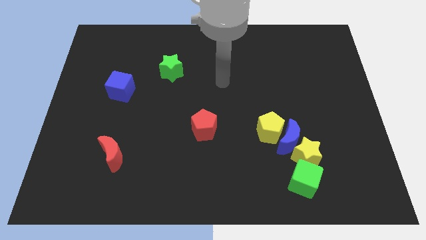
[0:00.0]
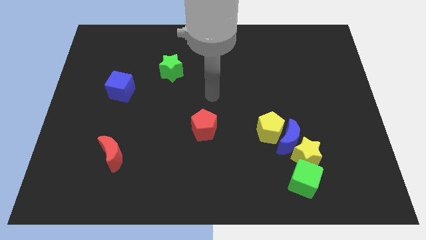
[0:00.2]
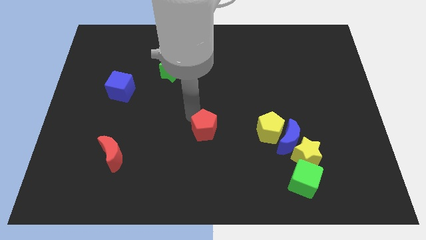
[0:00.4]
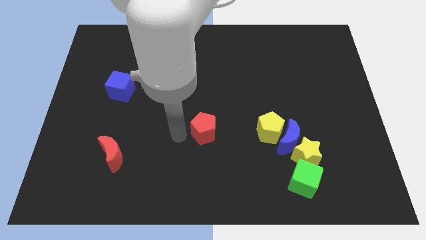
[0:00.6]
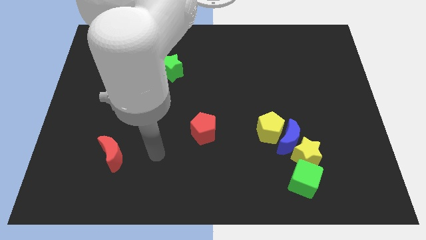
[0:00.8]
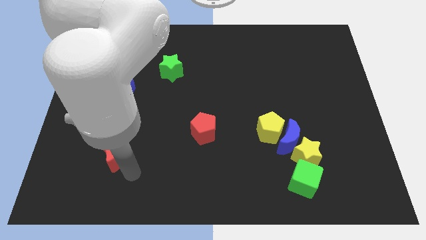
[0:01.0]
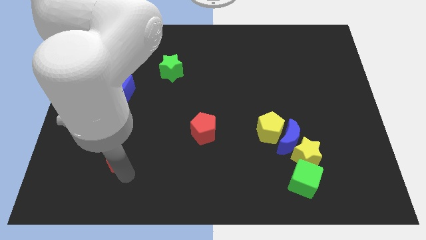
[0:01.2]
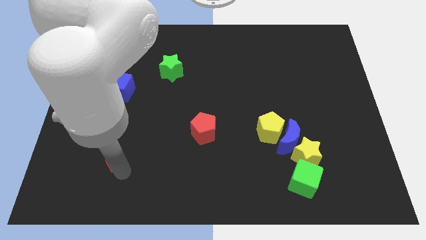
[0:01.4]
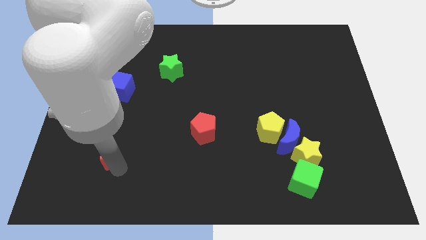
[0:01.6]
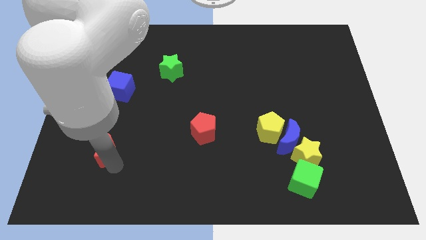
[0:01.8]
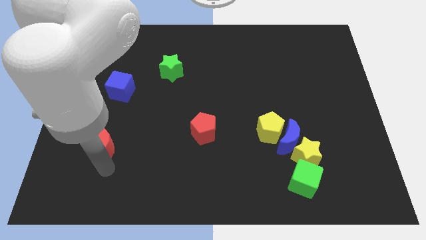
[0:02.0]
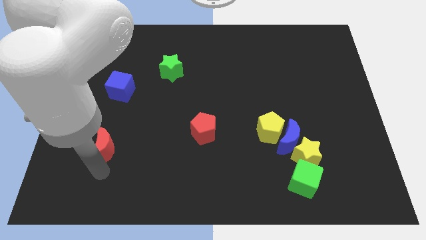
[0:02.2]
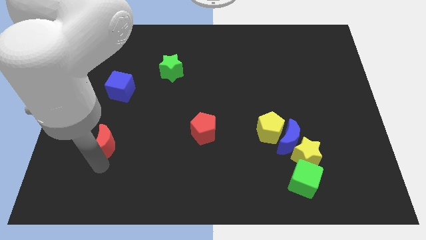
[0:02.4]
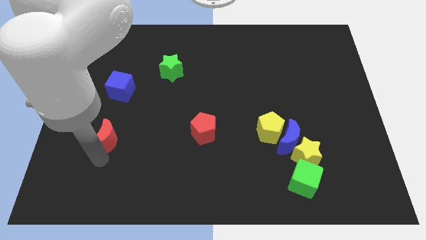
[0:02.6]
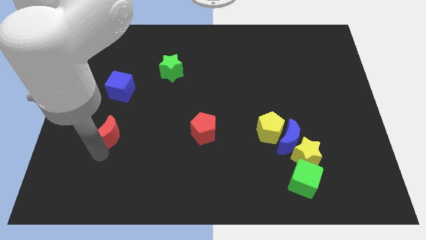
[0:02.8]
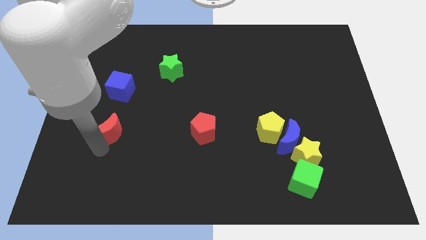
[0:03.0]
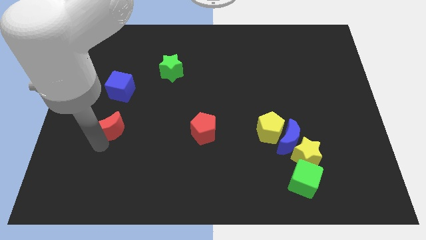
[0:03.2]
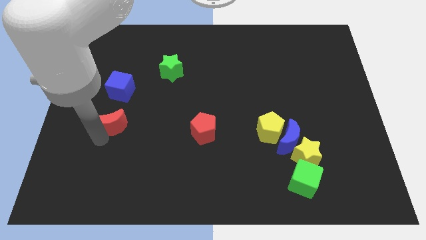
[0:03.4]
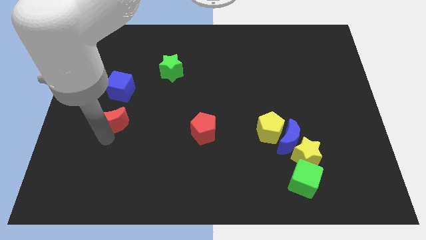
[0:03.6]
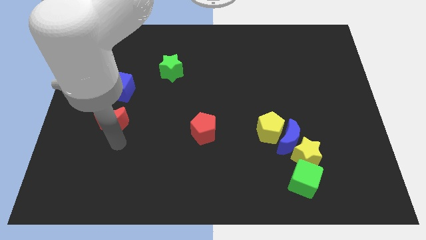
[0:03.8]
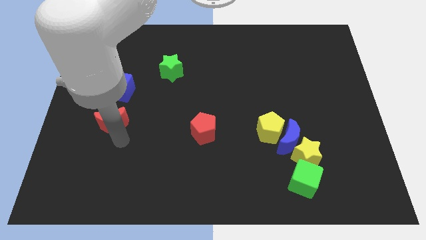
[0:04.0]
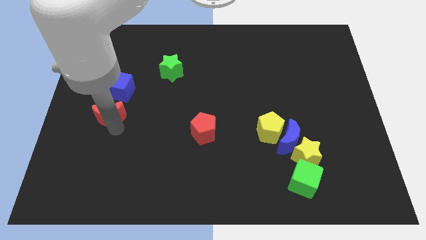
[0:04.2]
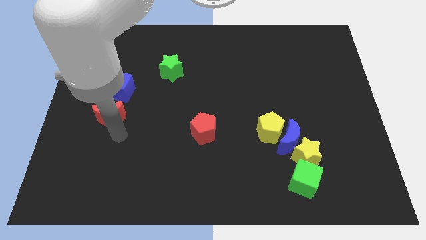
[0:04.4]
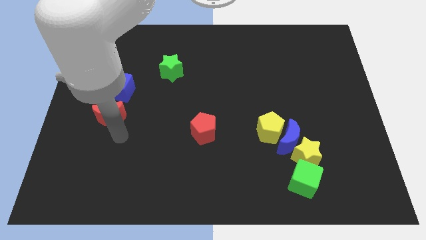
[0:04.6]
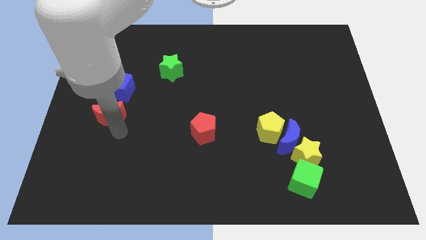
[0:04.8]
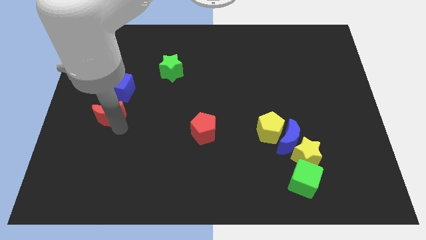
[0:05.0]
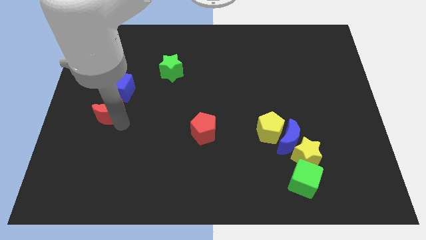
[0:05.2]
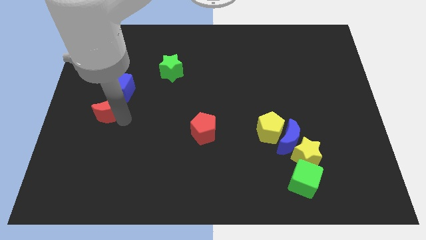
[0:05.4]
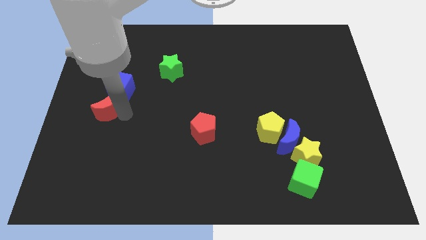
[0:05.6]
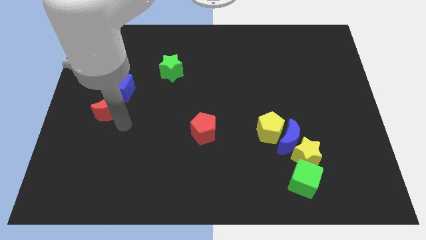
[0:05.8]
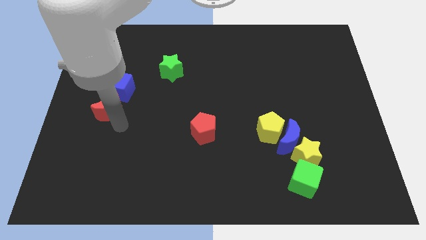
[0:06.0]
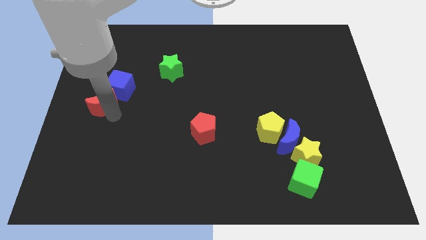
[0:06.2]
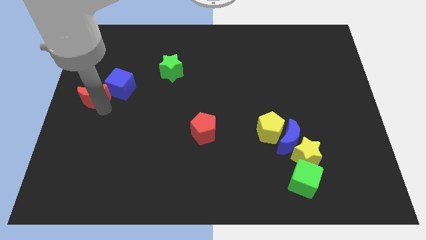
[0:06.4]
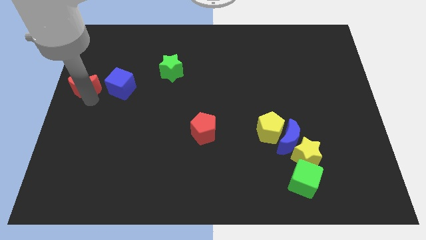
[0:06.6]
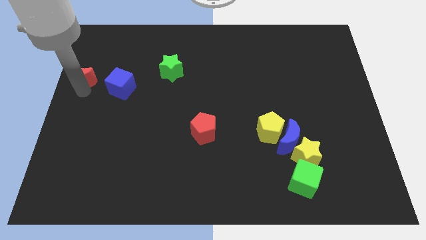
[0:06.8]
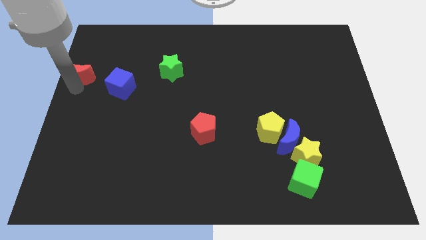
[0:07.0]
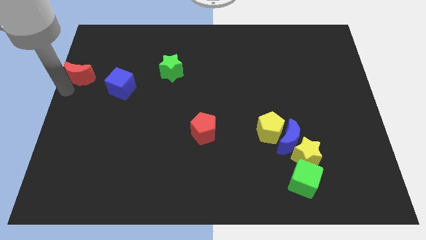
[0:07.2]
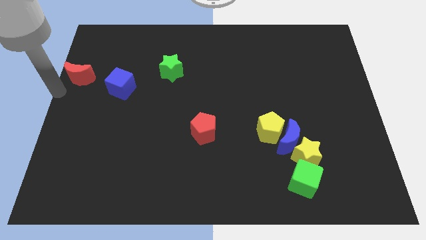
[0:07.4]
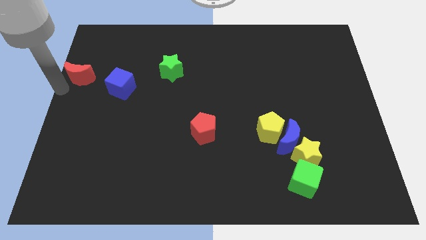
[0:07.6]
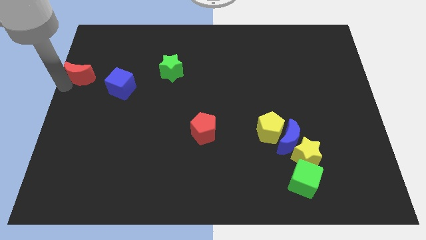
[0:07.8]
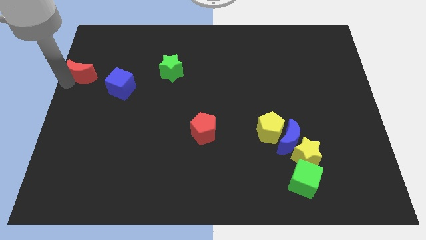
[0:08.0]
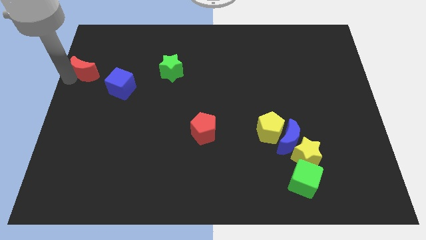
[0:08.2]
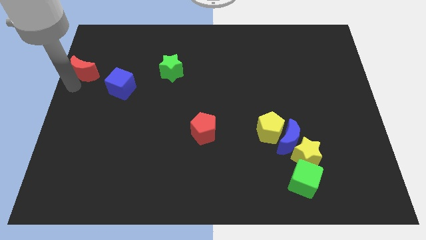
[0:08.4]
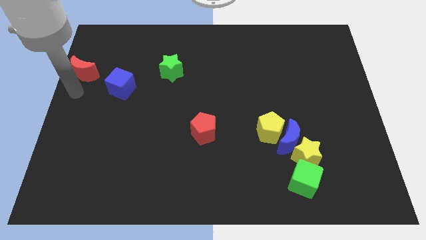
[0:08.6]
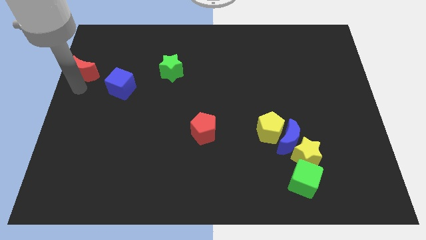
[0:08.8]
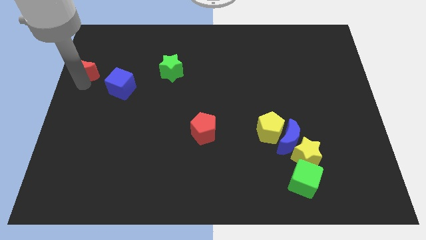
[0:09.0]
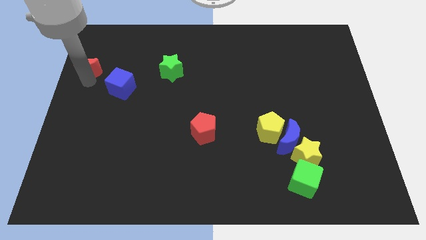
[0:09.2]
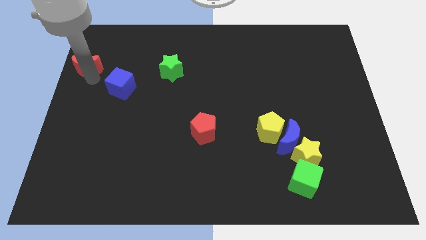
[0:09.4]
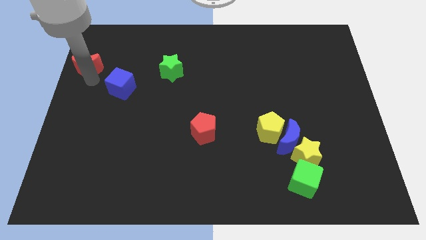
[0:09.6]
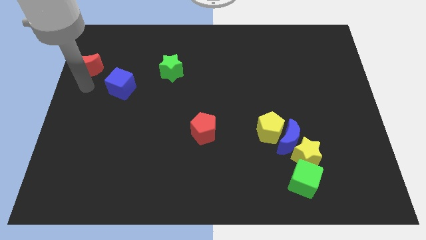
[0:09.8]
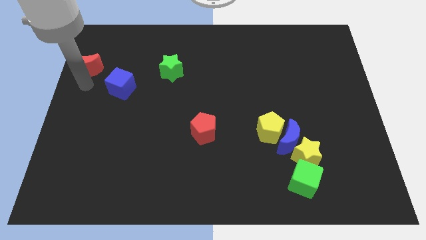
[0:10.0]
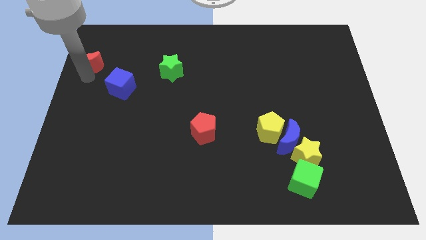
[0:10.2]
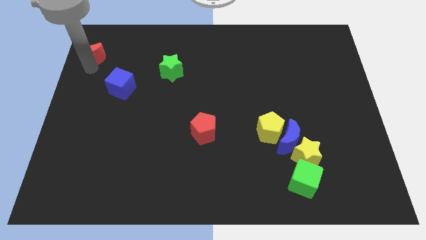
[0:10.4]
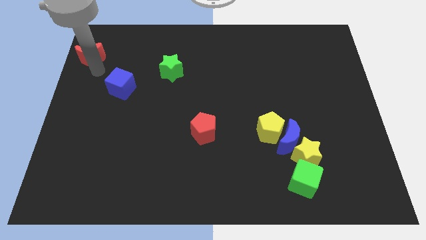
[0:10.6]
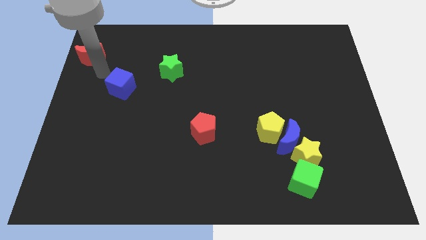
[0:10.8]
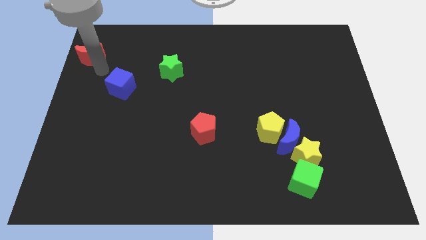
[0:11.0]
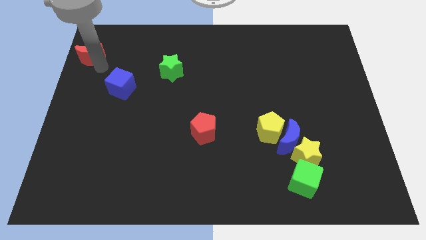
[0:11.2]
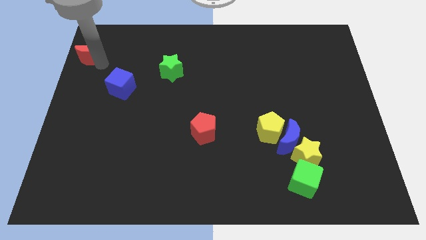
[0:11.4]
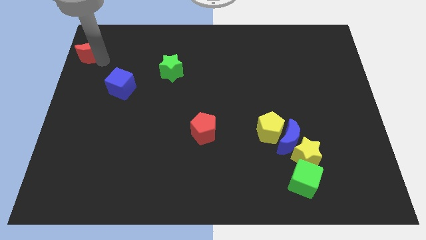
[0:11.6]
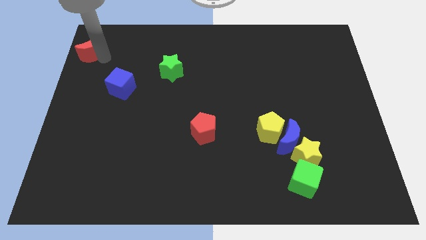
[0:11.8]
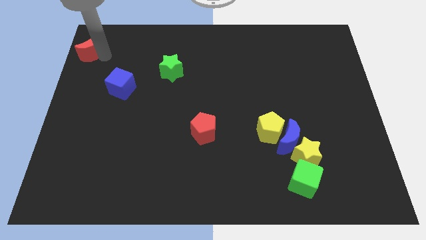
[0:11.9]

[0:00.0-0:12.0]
push the red moon to the top left of the board

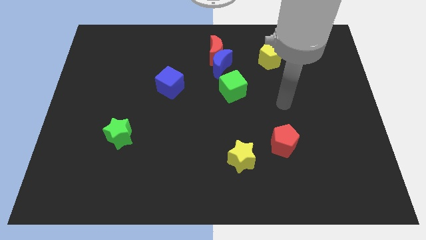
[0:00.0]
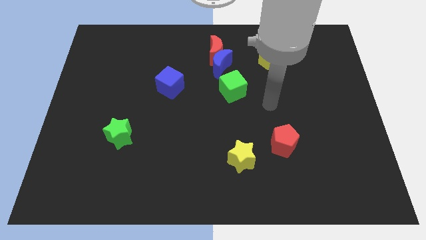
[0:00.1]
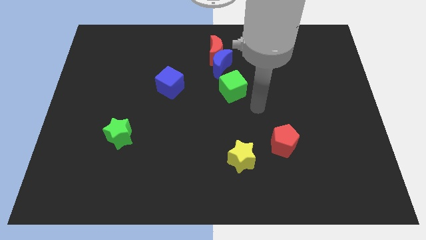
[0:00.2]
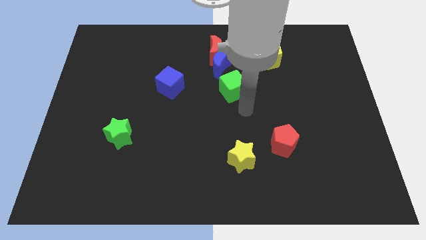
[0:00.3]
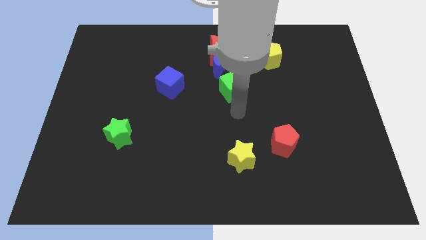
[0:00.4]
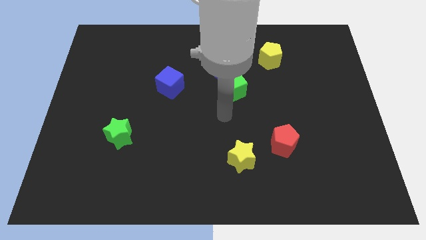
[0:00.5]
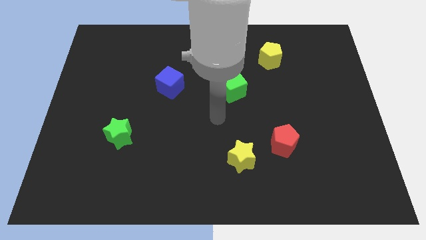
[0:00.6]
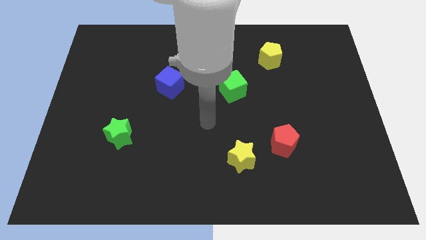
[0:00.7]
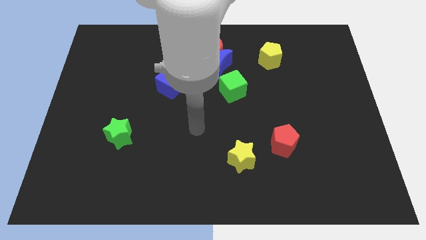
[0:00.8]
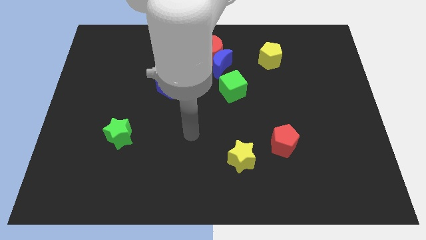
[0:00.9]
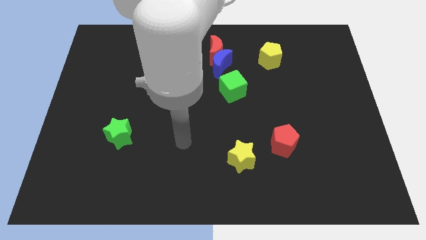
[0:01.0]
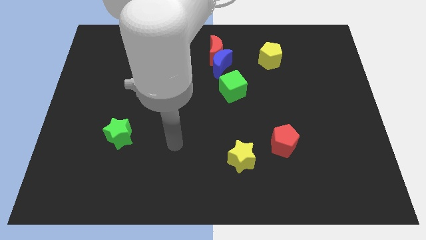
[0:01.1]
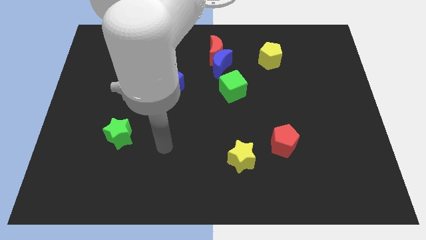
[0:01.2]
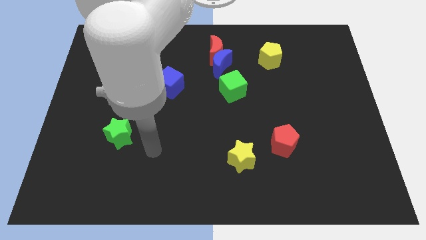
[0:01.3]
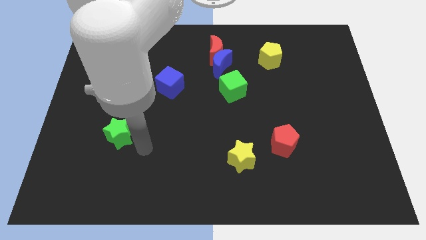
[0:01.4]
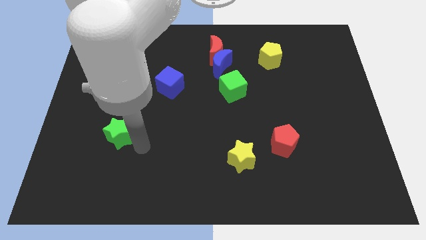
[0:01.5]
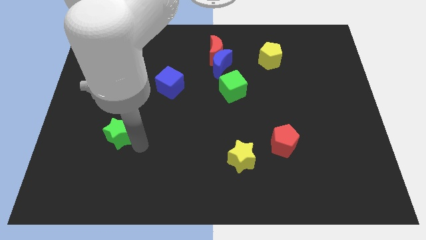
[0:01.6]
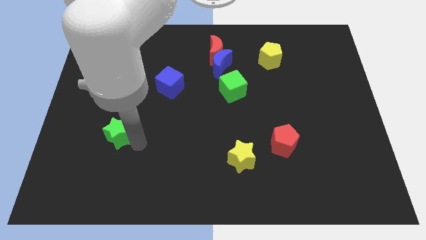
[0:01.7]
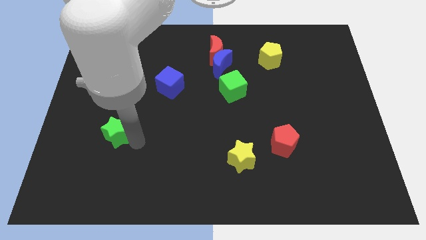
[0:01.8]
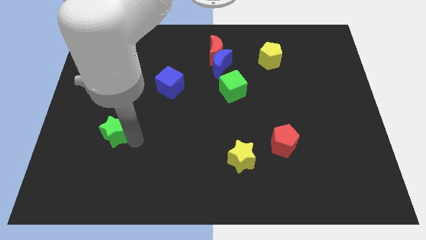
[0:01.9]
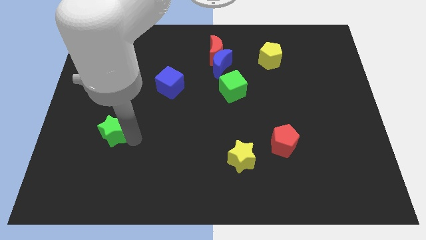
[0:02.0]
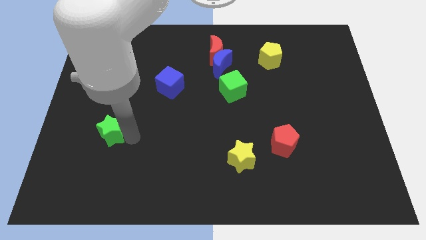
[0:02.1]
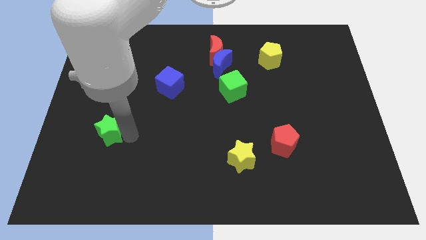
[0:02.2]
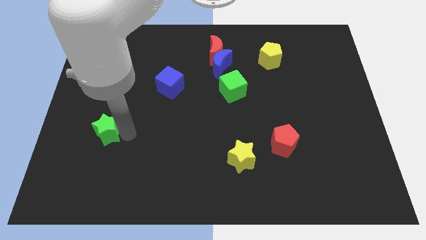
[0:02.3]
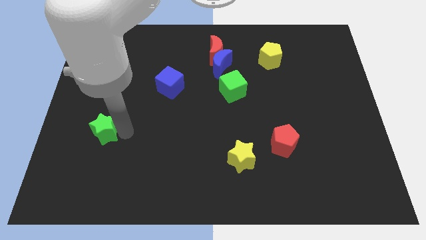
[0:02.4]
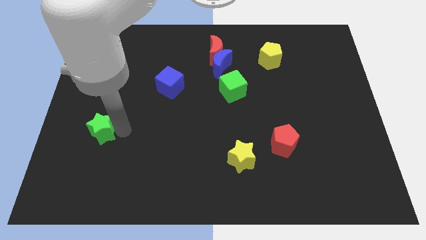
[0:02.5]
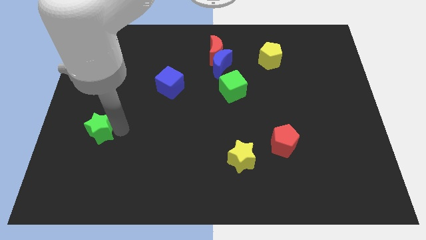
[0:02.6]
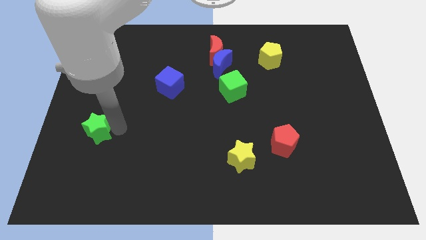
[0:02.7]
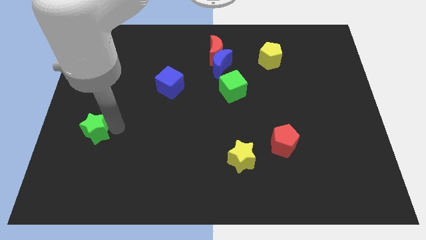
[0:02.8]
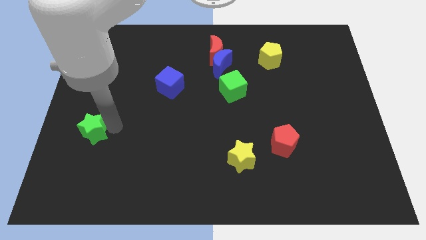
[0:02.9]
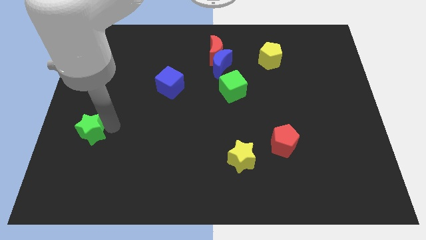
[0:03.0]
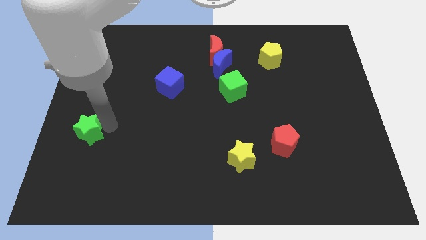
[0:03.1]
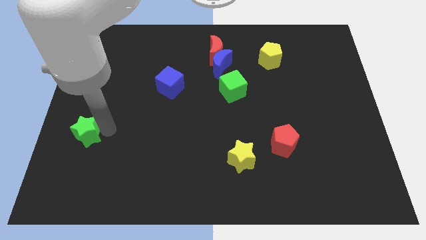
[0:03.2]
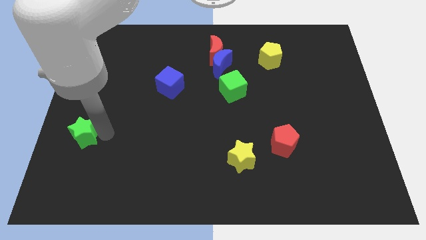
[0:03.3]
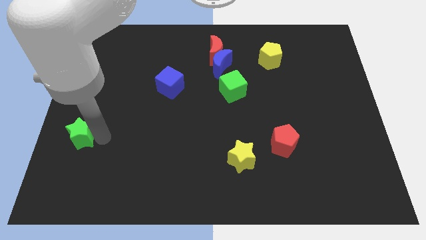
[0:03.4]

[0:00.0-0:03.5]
put the green star to the center left
